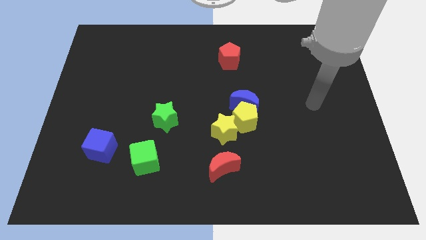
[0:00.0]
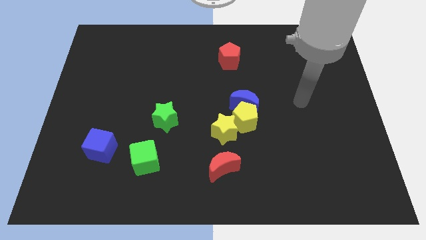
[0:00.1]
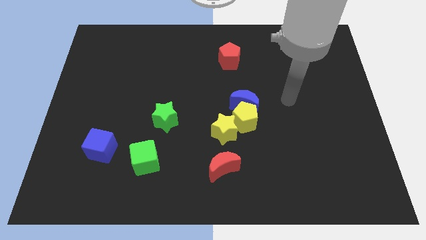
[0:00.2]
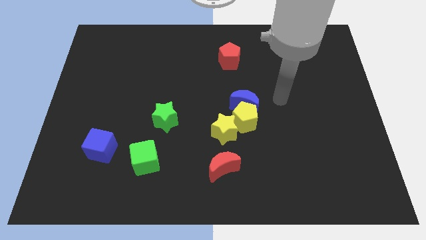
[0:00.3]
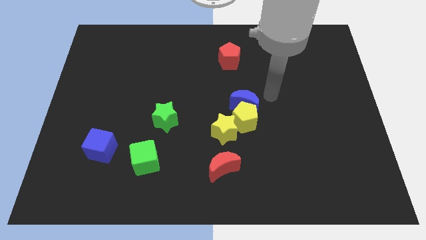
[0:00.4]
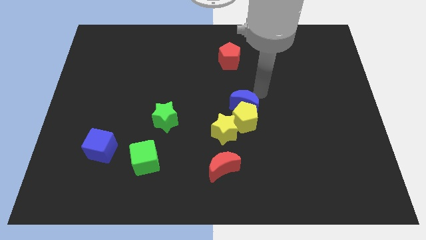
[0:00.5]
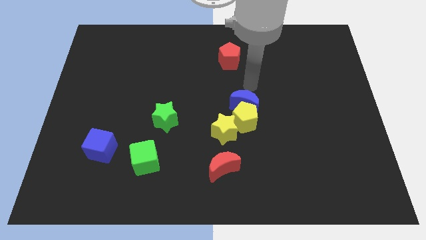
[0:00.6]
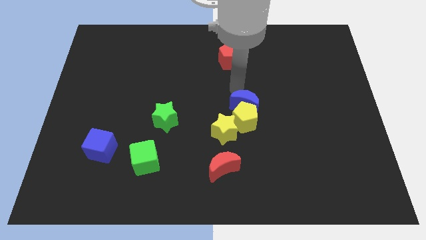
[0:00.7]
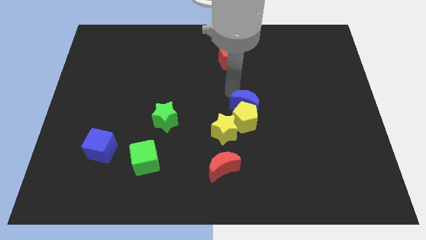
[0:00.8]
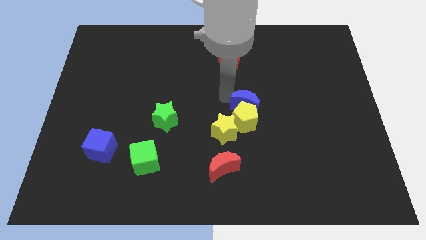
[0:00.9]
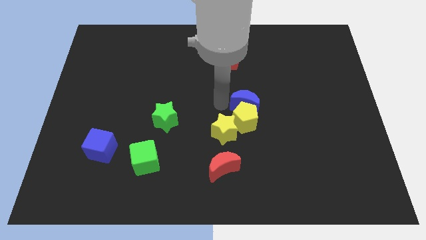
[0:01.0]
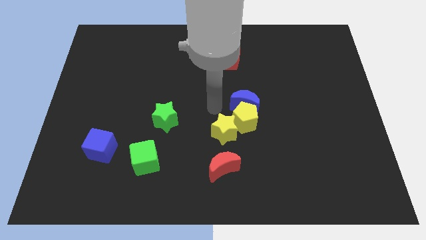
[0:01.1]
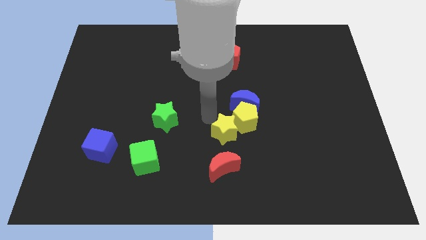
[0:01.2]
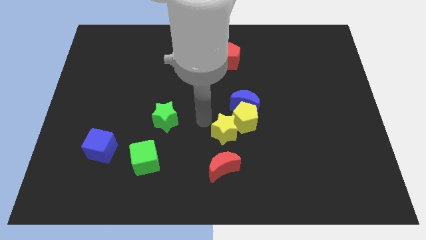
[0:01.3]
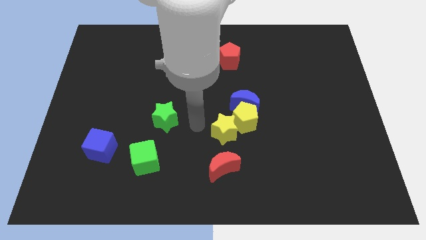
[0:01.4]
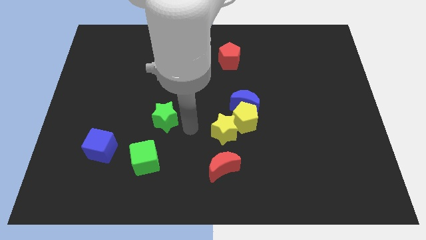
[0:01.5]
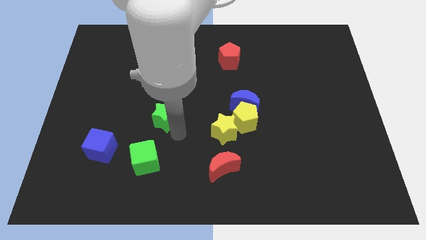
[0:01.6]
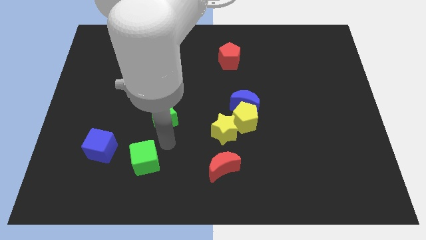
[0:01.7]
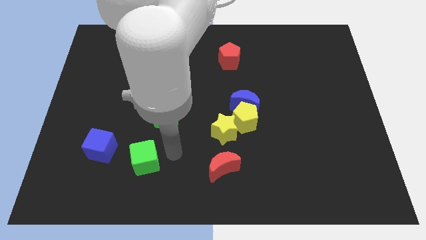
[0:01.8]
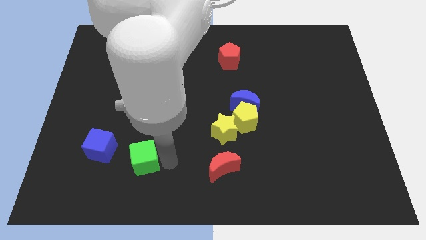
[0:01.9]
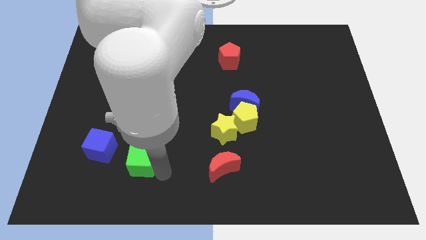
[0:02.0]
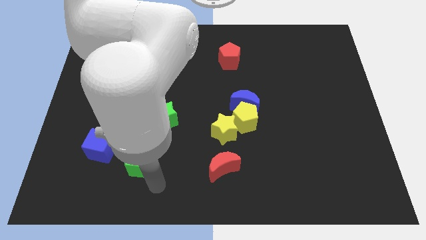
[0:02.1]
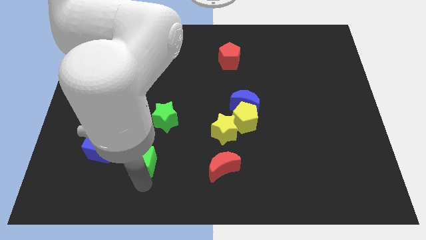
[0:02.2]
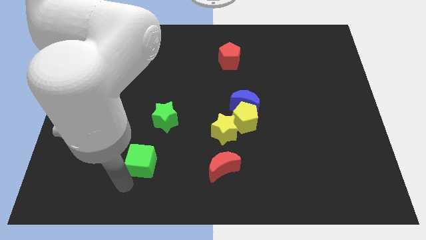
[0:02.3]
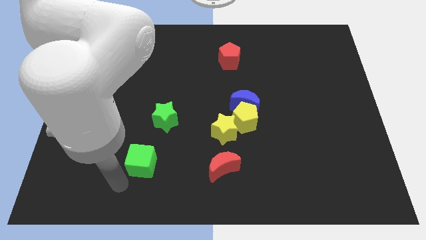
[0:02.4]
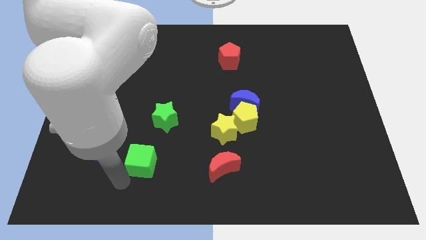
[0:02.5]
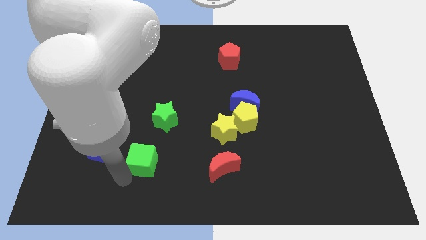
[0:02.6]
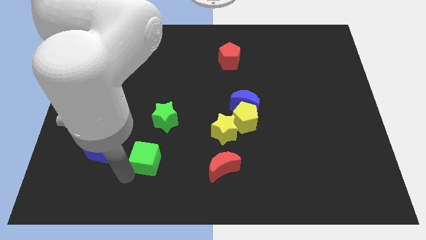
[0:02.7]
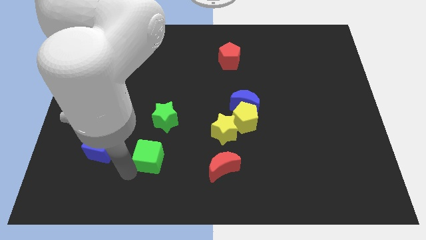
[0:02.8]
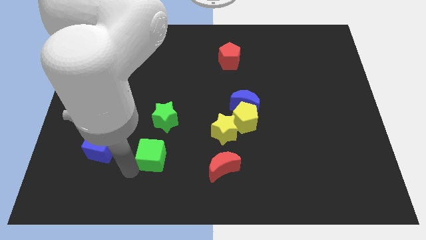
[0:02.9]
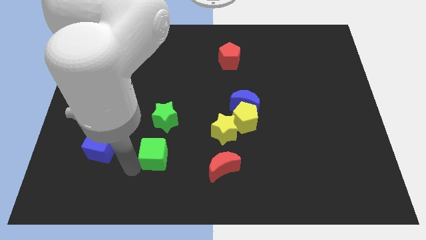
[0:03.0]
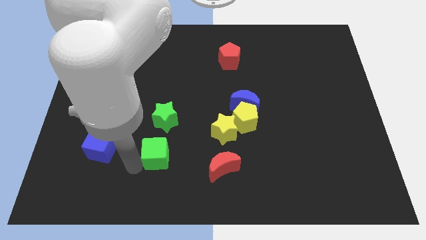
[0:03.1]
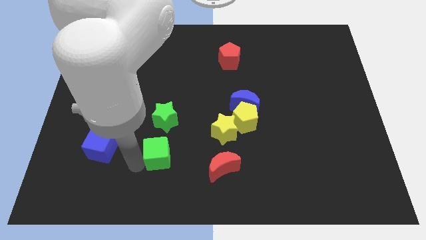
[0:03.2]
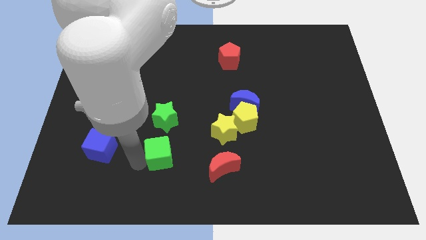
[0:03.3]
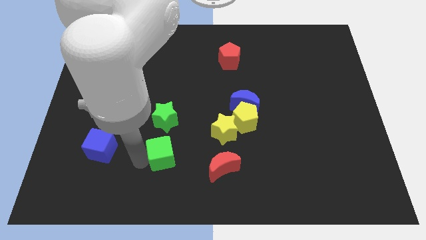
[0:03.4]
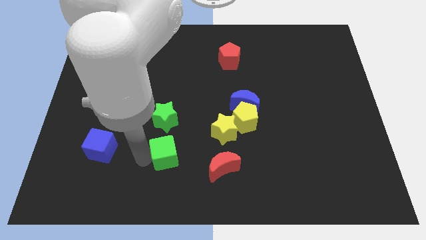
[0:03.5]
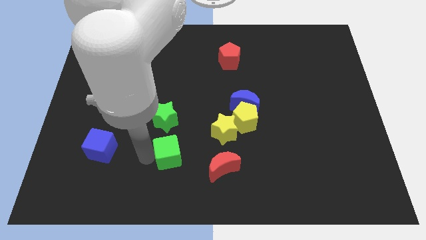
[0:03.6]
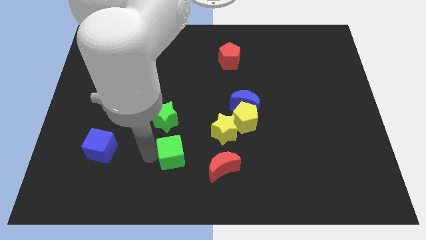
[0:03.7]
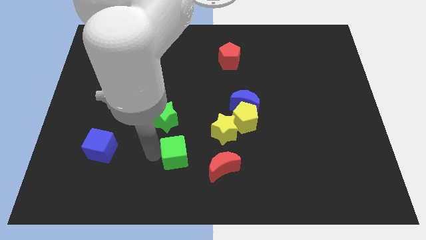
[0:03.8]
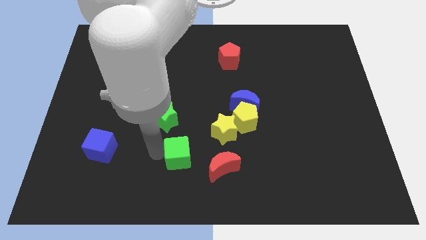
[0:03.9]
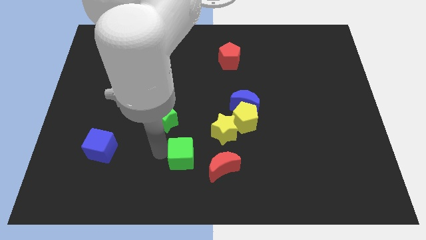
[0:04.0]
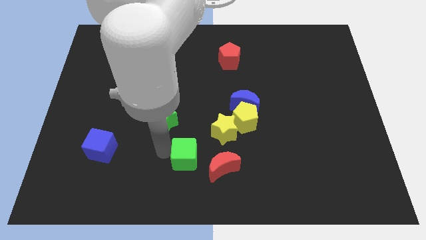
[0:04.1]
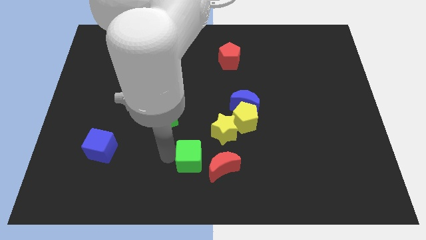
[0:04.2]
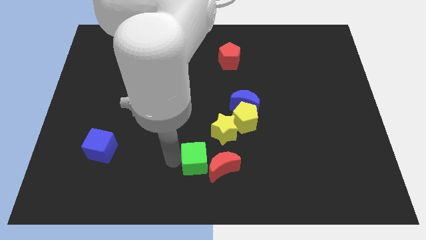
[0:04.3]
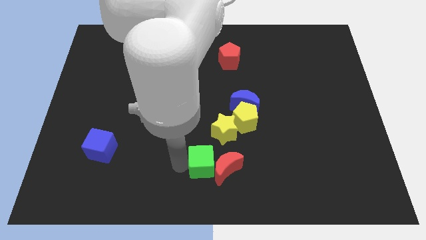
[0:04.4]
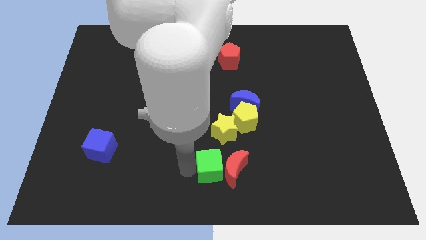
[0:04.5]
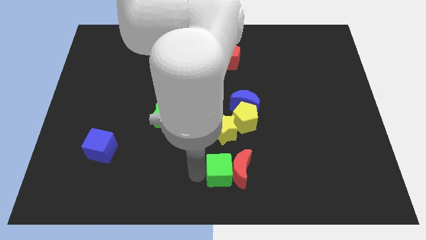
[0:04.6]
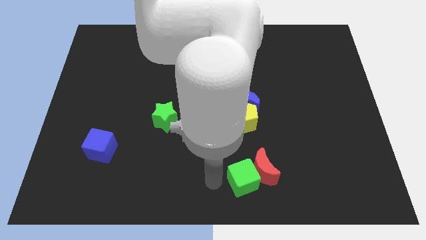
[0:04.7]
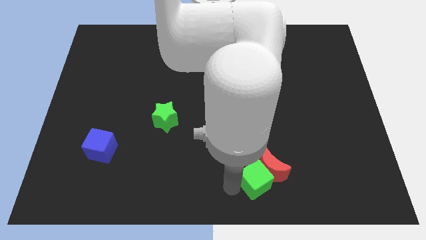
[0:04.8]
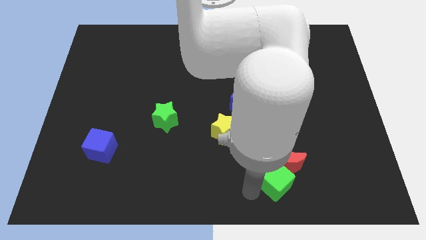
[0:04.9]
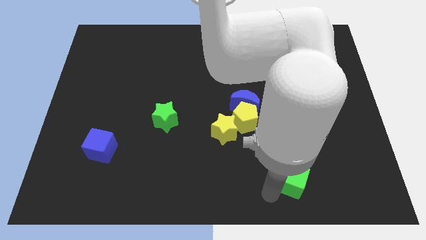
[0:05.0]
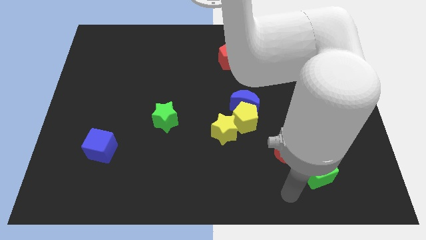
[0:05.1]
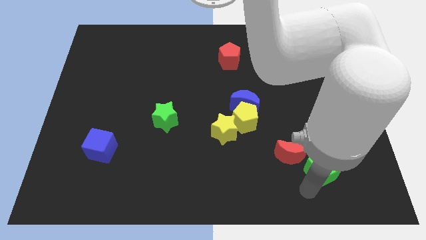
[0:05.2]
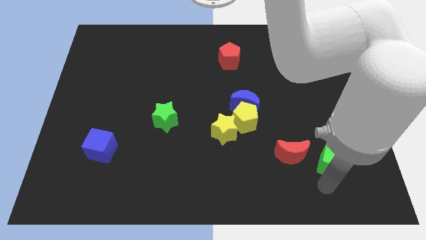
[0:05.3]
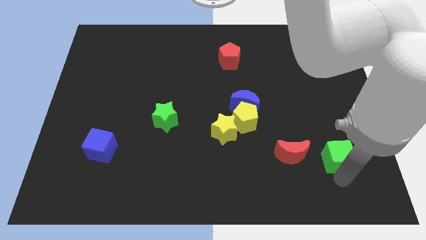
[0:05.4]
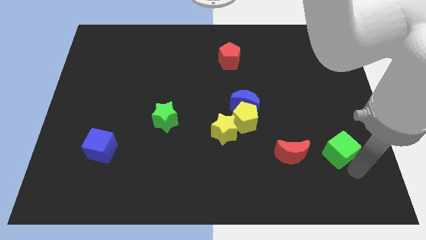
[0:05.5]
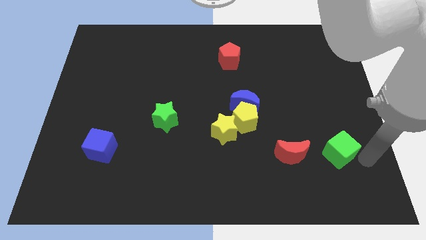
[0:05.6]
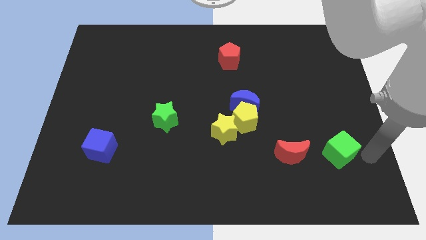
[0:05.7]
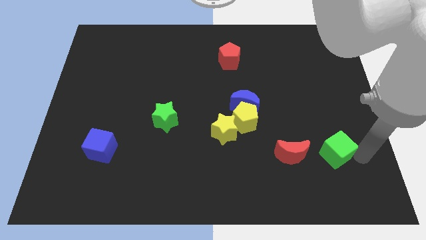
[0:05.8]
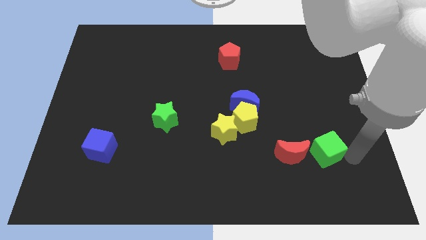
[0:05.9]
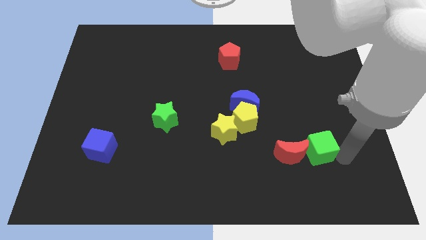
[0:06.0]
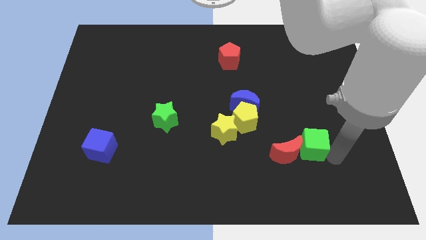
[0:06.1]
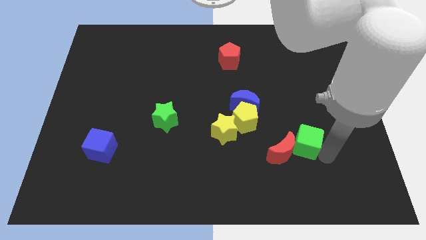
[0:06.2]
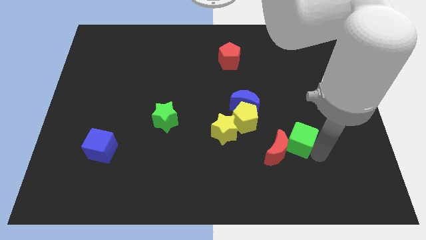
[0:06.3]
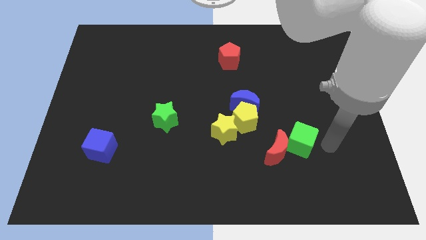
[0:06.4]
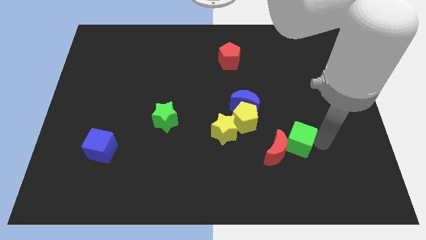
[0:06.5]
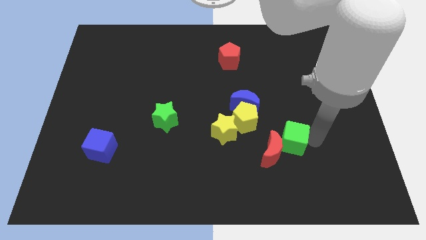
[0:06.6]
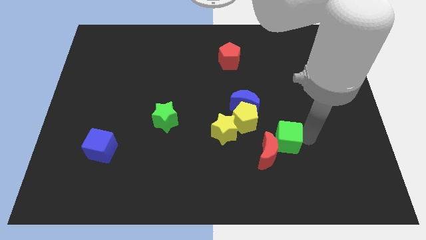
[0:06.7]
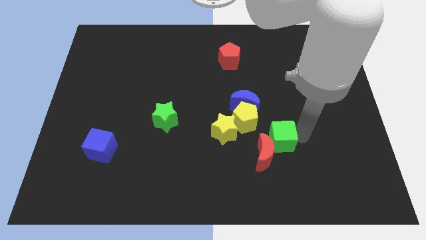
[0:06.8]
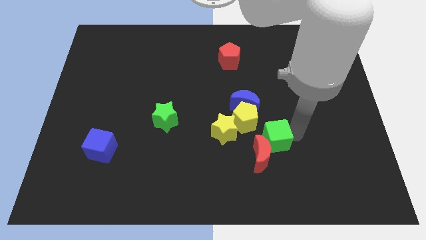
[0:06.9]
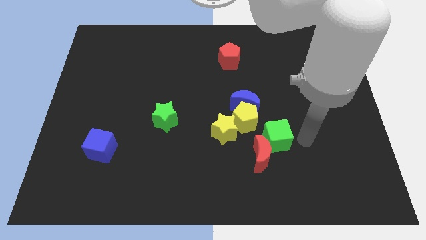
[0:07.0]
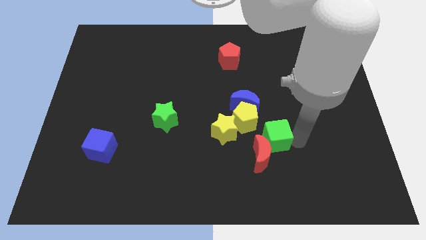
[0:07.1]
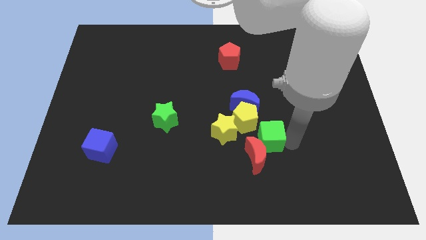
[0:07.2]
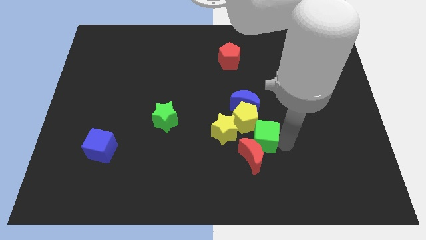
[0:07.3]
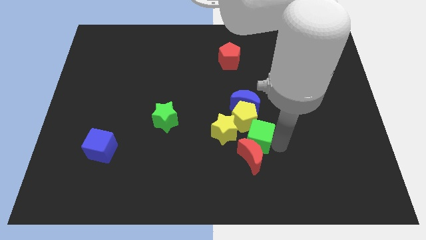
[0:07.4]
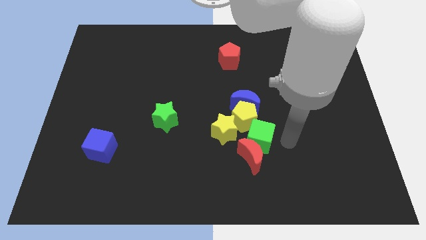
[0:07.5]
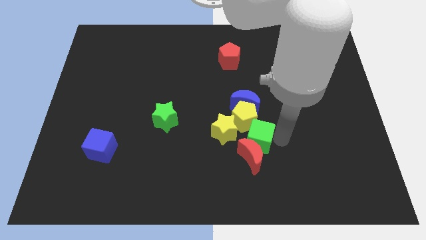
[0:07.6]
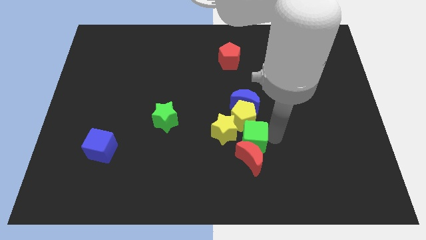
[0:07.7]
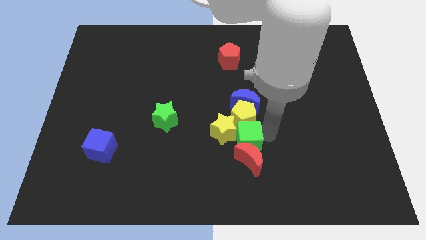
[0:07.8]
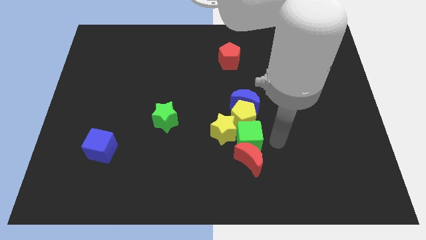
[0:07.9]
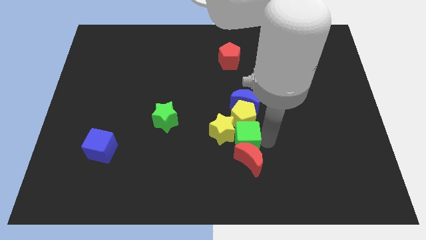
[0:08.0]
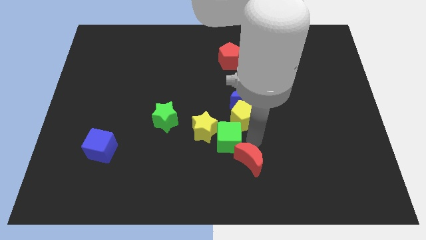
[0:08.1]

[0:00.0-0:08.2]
put the green cube to the middle
